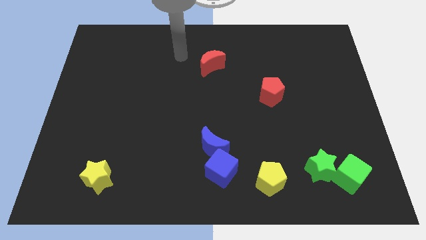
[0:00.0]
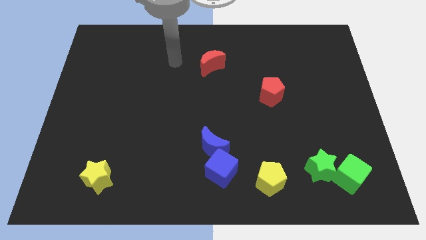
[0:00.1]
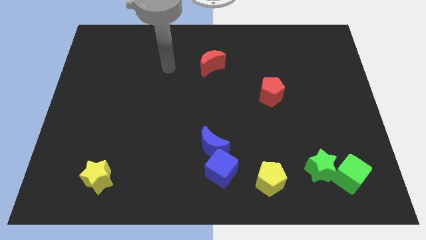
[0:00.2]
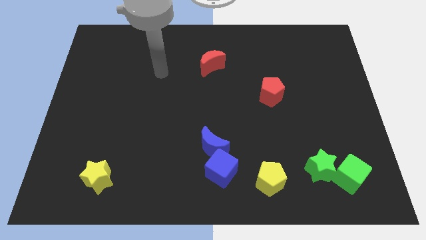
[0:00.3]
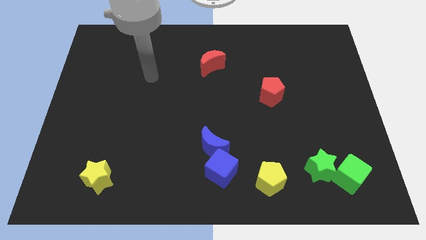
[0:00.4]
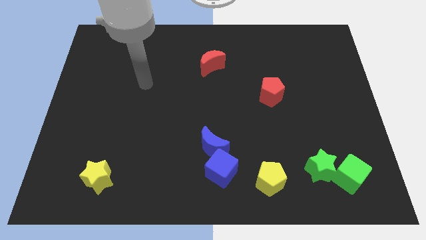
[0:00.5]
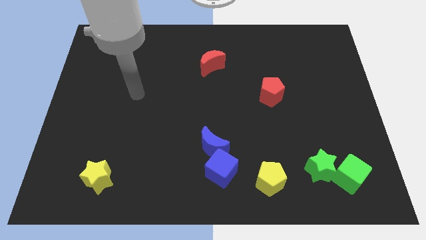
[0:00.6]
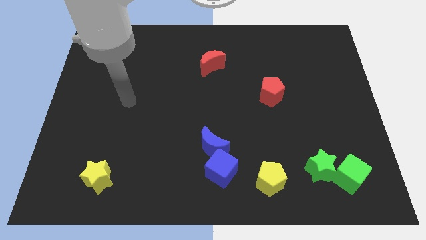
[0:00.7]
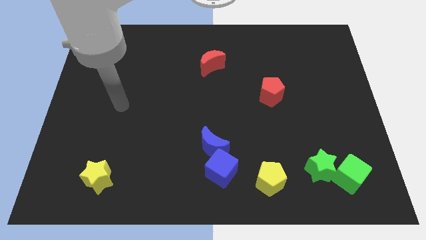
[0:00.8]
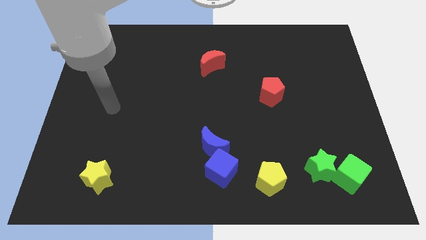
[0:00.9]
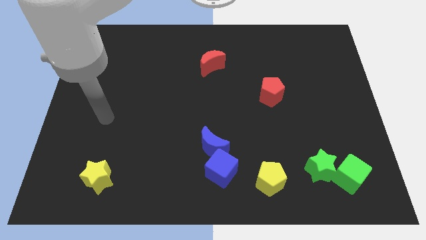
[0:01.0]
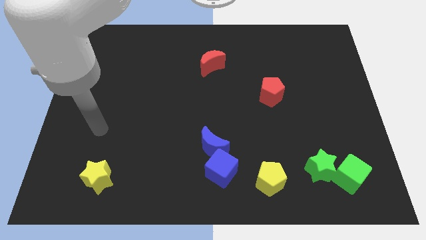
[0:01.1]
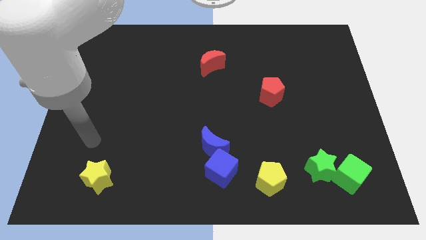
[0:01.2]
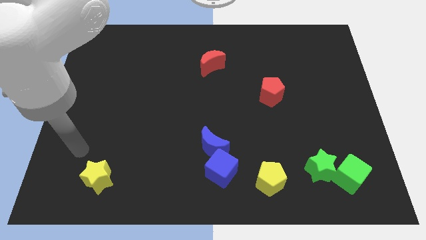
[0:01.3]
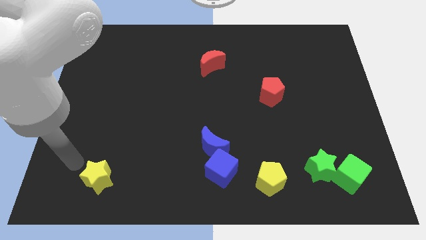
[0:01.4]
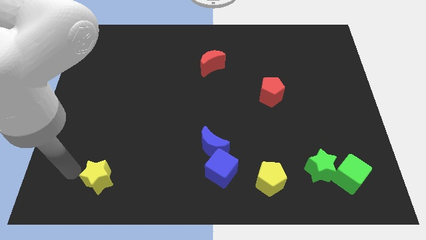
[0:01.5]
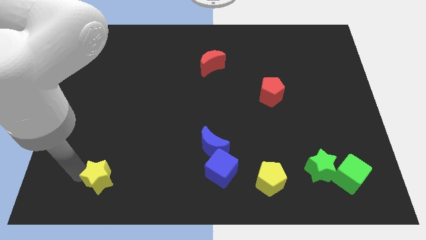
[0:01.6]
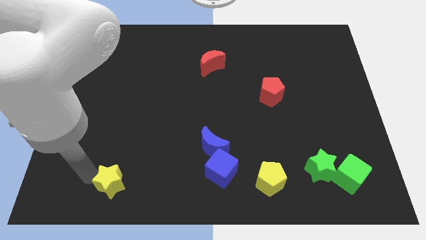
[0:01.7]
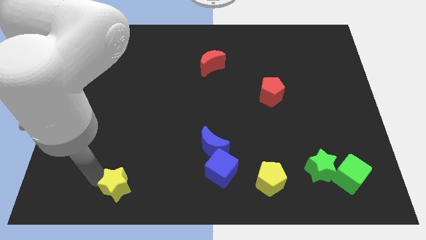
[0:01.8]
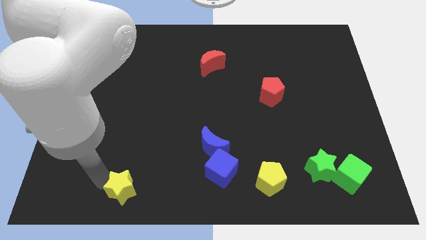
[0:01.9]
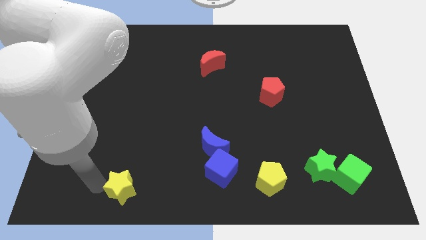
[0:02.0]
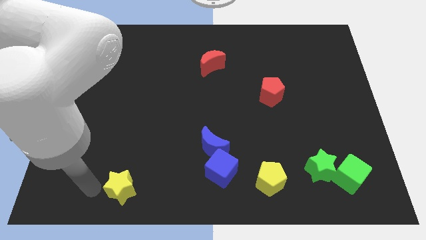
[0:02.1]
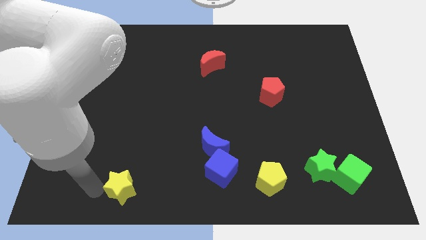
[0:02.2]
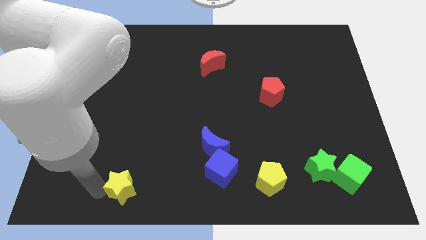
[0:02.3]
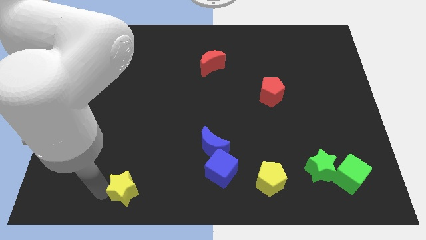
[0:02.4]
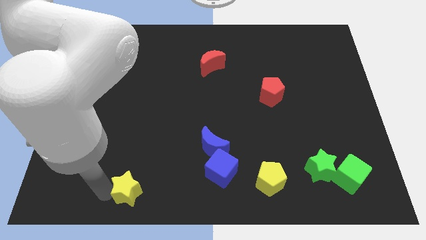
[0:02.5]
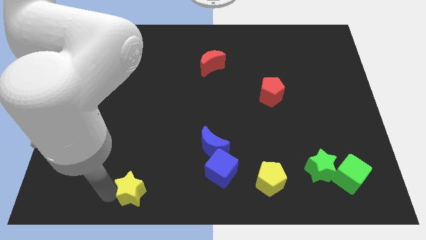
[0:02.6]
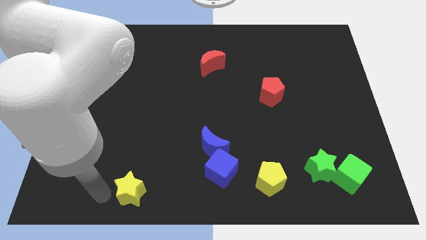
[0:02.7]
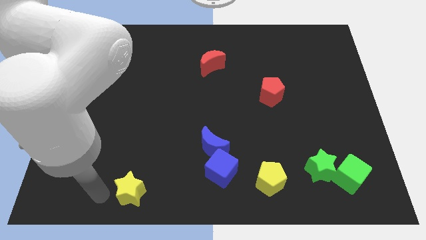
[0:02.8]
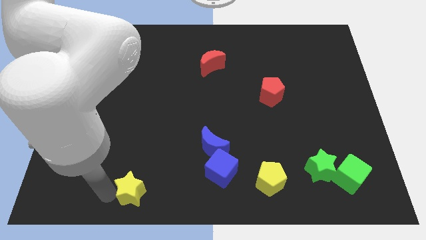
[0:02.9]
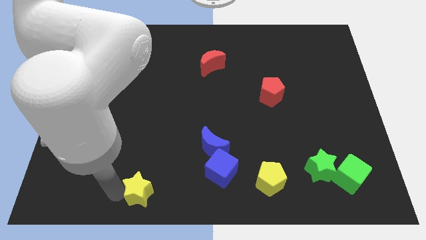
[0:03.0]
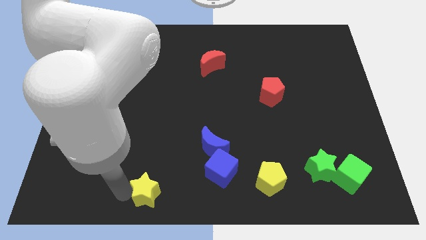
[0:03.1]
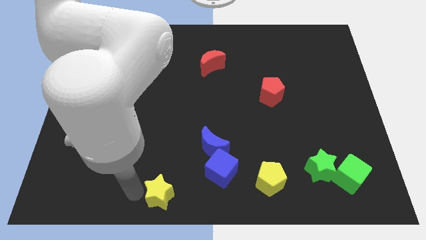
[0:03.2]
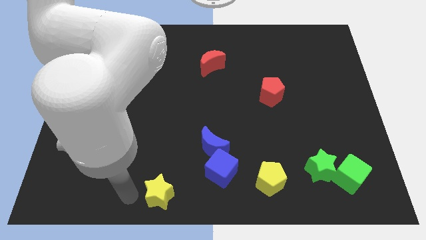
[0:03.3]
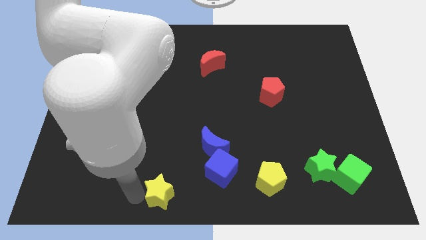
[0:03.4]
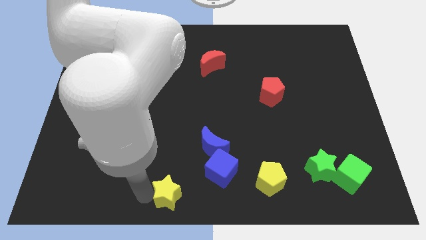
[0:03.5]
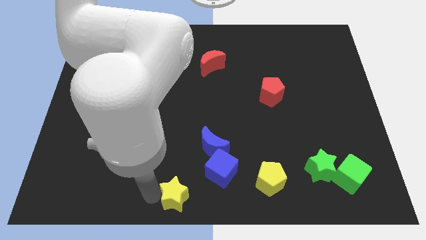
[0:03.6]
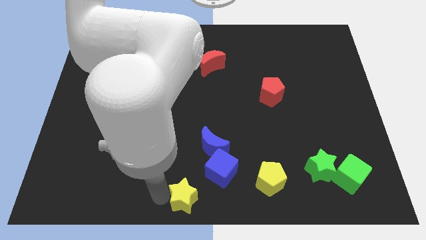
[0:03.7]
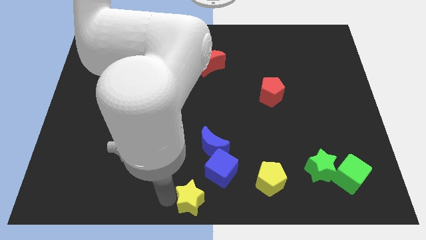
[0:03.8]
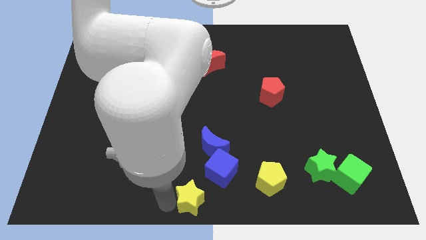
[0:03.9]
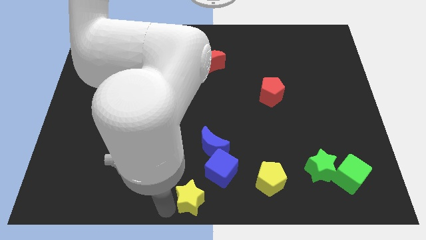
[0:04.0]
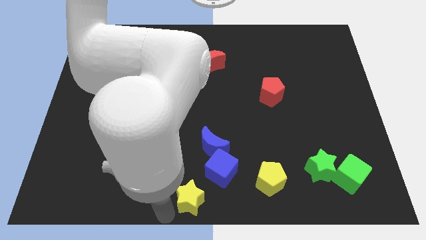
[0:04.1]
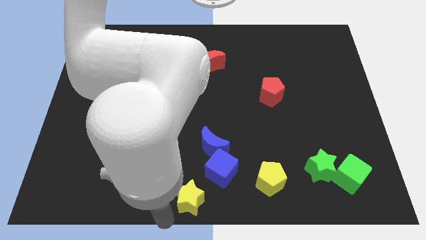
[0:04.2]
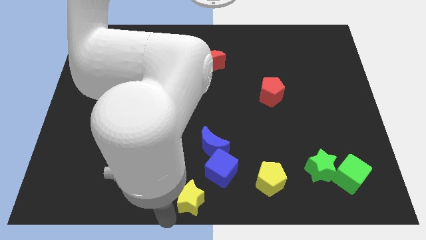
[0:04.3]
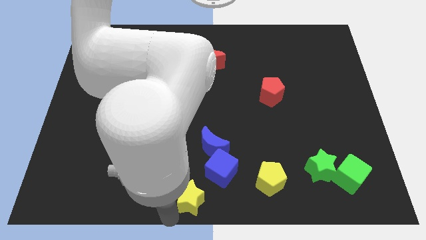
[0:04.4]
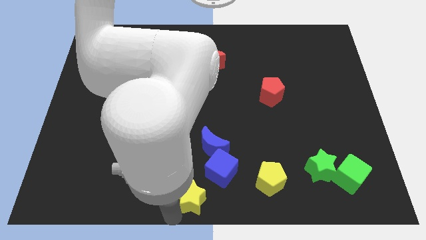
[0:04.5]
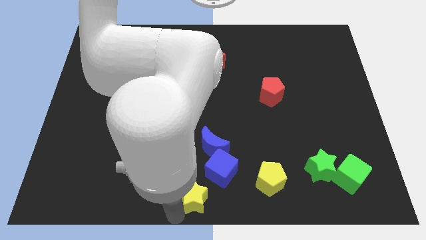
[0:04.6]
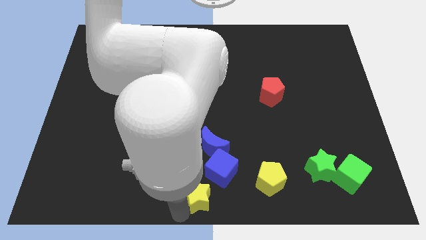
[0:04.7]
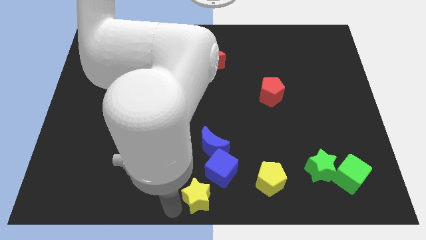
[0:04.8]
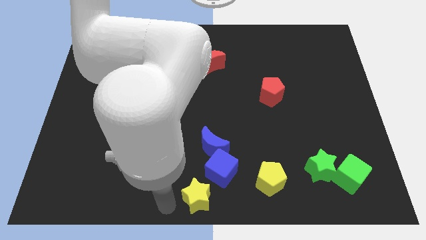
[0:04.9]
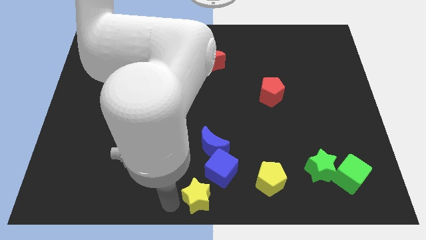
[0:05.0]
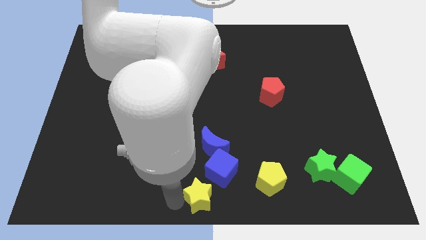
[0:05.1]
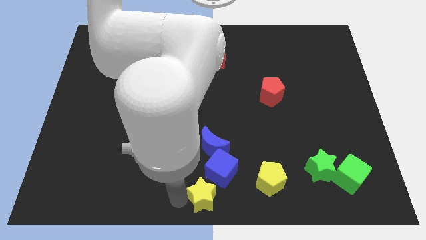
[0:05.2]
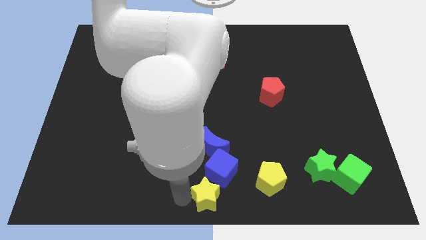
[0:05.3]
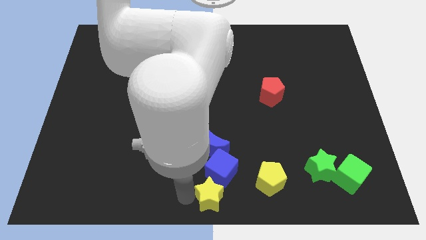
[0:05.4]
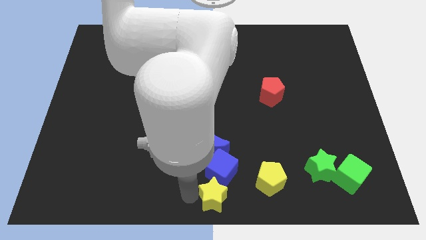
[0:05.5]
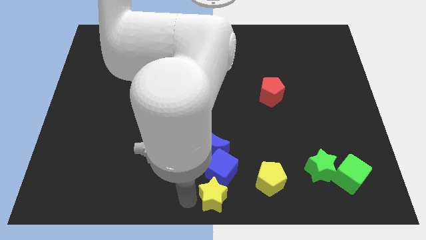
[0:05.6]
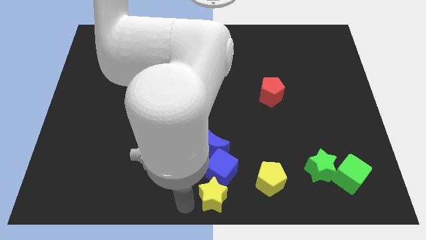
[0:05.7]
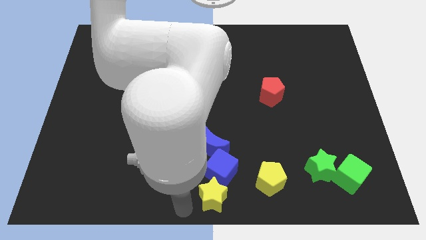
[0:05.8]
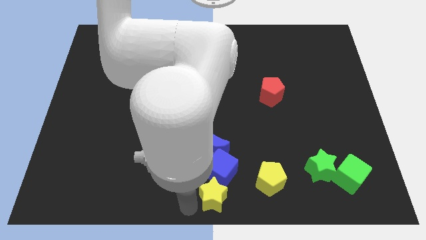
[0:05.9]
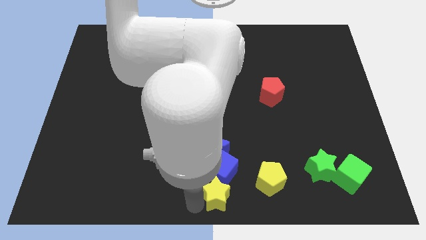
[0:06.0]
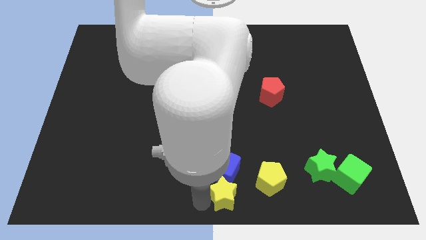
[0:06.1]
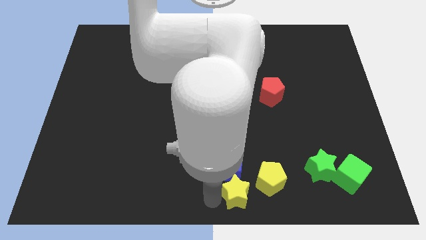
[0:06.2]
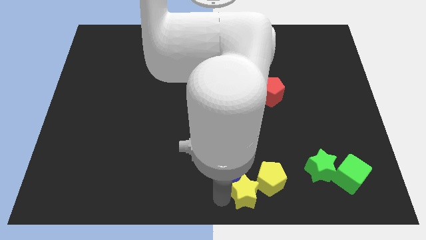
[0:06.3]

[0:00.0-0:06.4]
move the yellow star to the yellow pentagon
